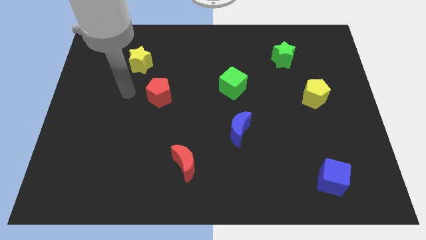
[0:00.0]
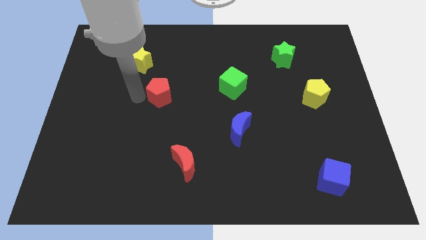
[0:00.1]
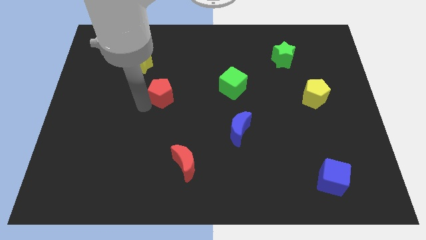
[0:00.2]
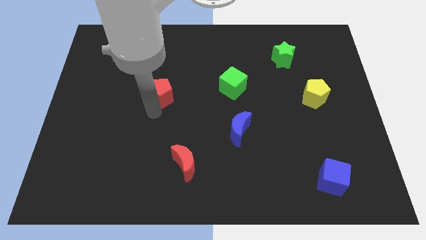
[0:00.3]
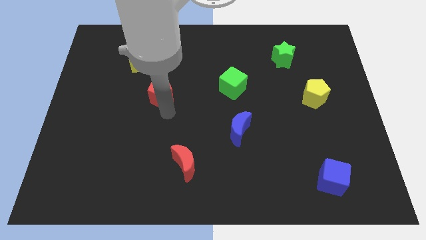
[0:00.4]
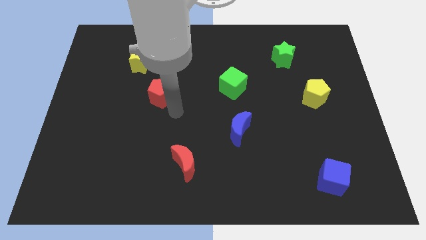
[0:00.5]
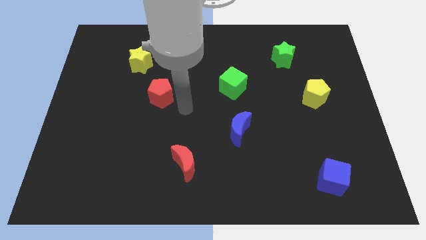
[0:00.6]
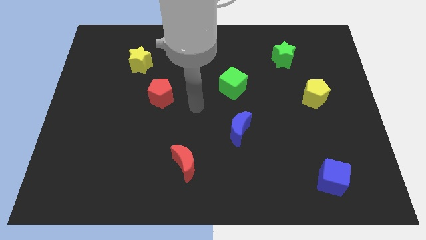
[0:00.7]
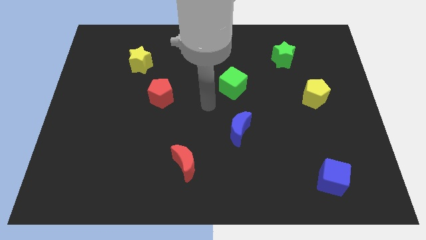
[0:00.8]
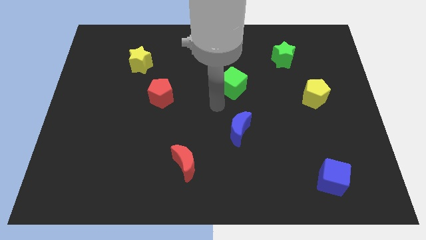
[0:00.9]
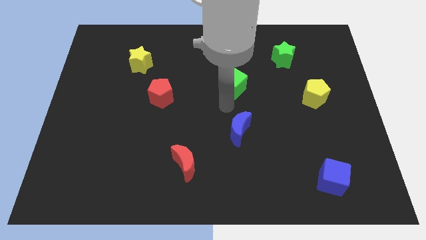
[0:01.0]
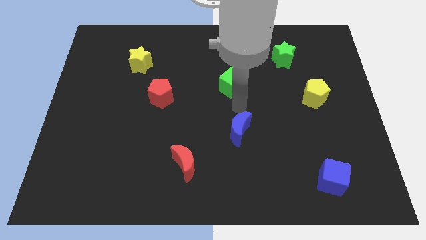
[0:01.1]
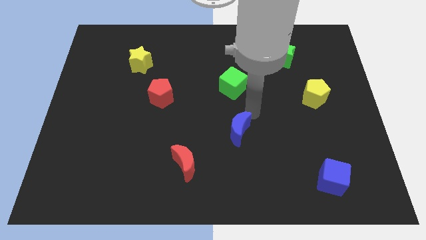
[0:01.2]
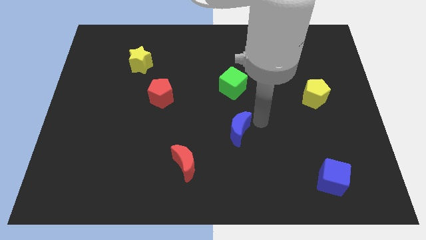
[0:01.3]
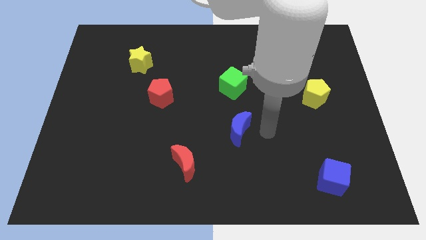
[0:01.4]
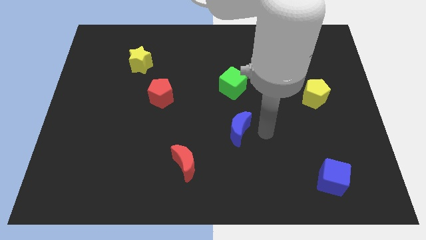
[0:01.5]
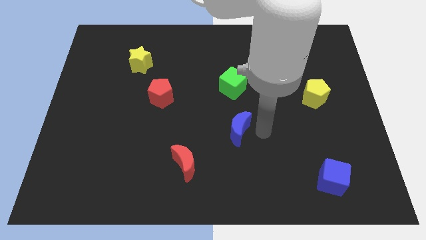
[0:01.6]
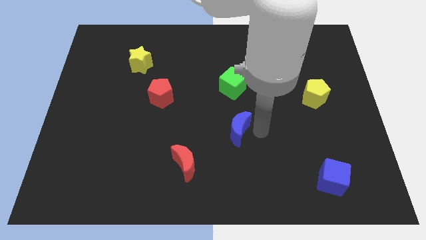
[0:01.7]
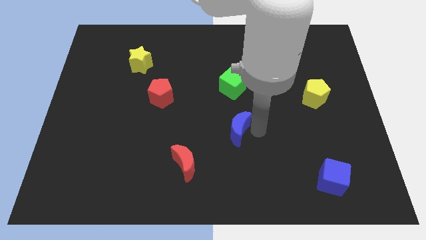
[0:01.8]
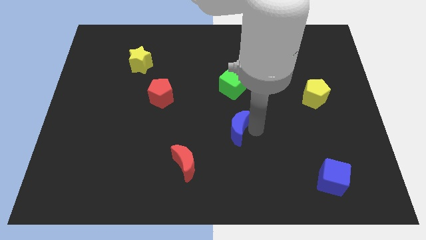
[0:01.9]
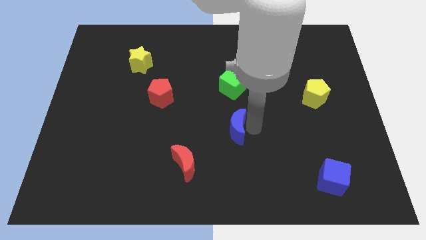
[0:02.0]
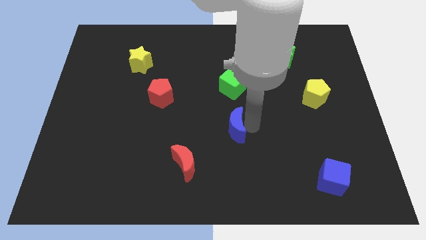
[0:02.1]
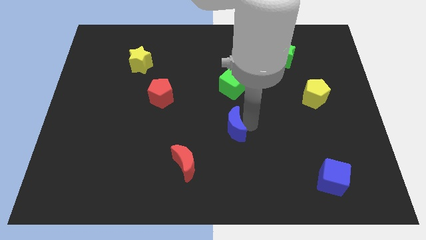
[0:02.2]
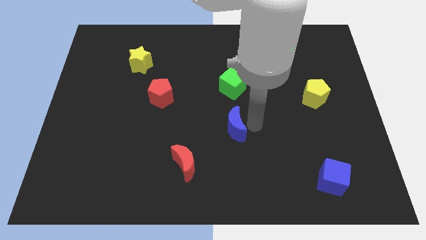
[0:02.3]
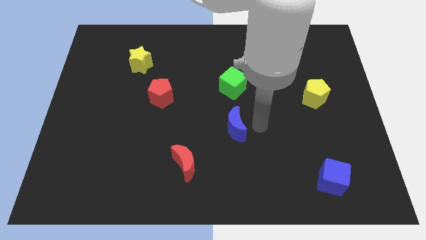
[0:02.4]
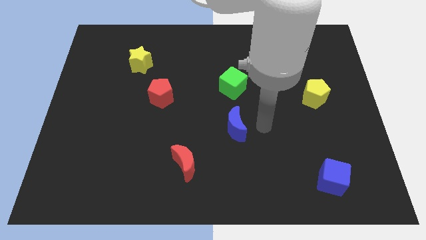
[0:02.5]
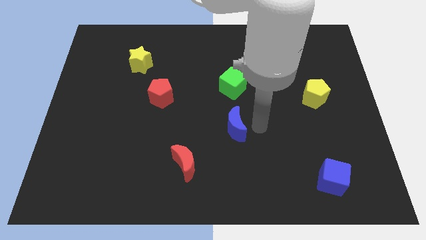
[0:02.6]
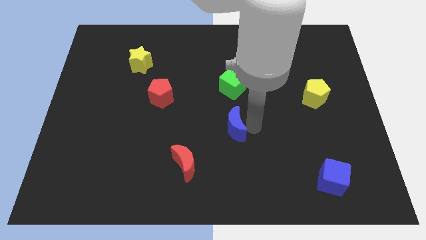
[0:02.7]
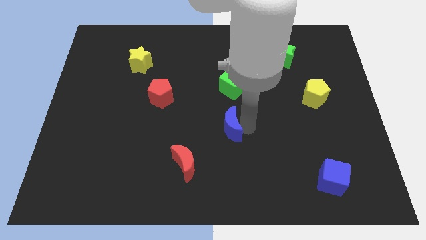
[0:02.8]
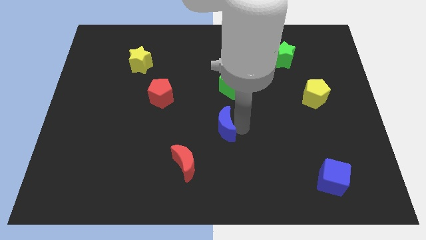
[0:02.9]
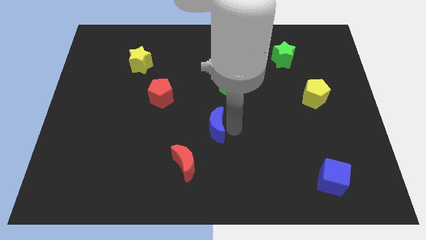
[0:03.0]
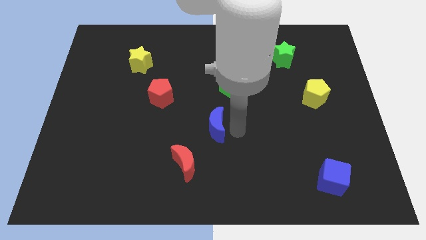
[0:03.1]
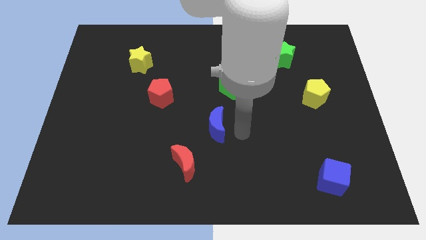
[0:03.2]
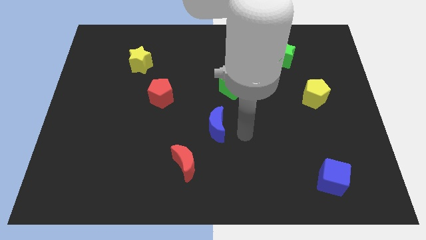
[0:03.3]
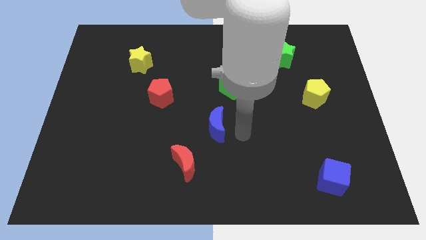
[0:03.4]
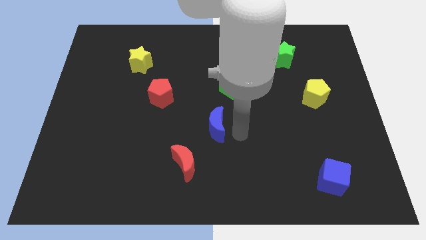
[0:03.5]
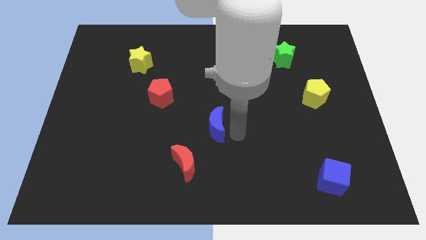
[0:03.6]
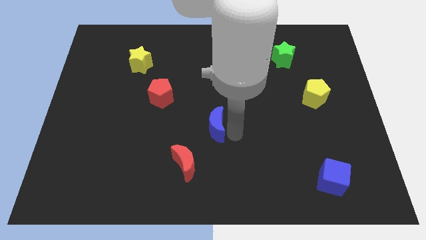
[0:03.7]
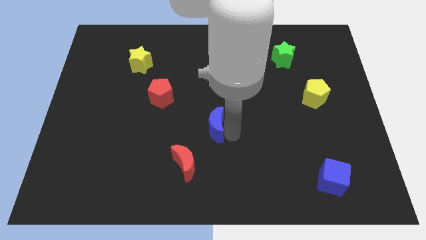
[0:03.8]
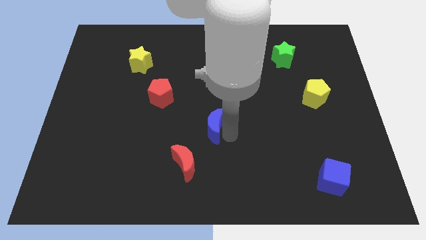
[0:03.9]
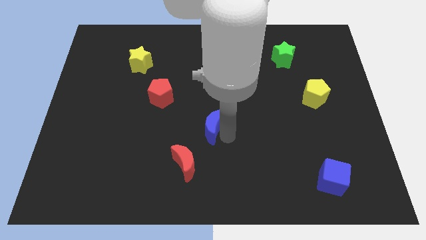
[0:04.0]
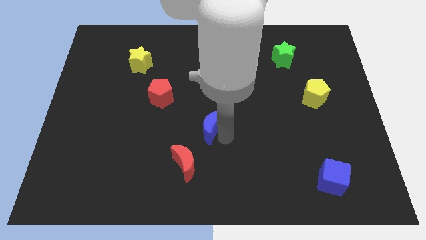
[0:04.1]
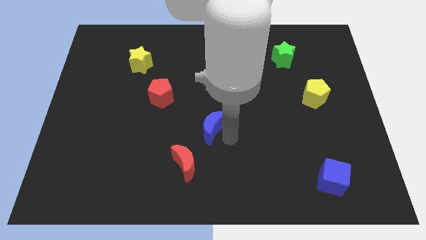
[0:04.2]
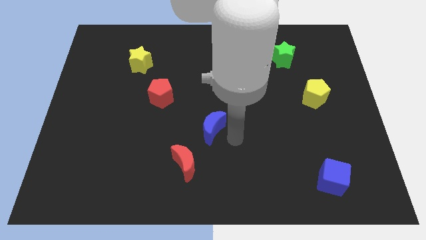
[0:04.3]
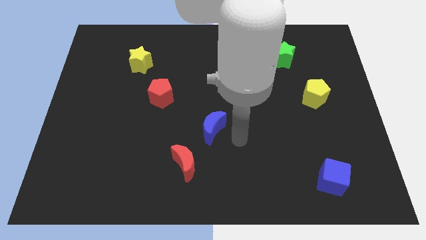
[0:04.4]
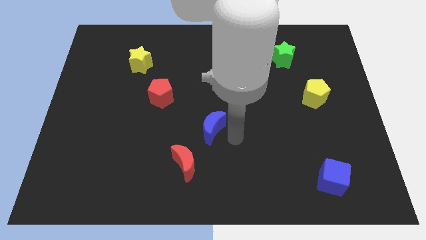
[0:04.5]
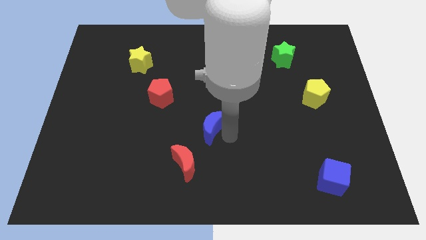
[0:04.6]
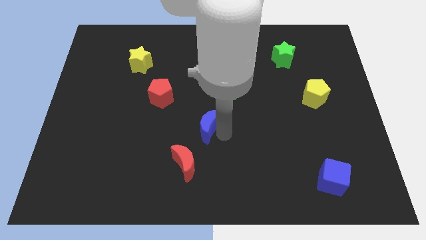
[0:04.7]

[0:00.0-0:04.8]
push the blue moon a little bit left

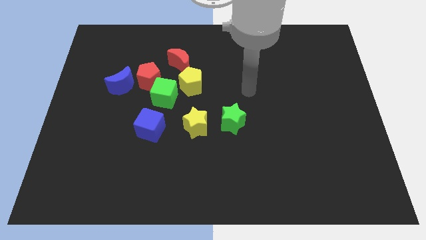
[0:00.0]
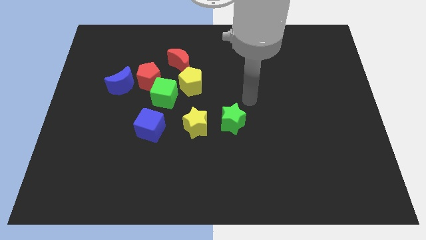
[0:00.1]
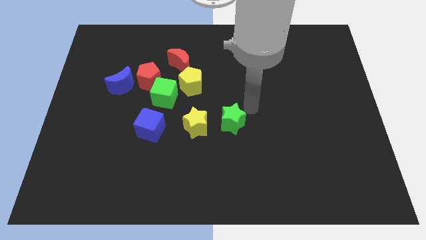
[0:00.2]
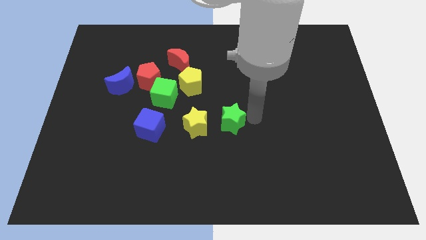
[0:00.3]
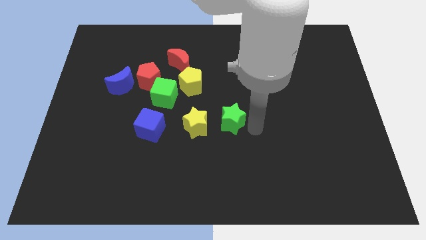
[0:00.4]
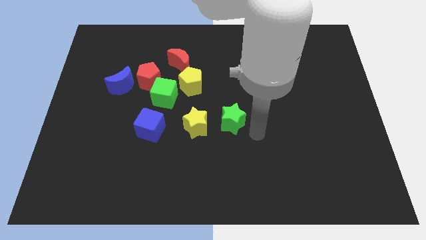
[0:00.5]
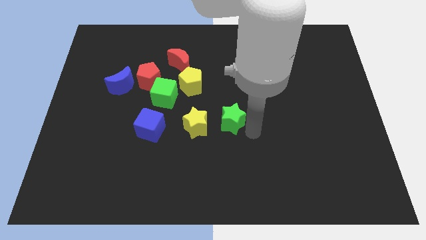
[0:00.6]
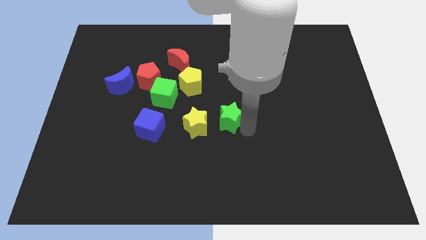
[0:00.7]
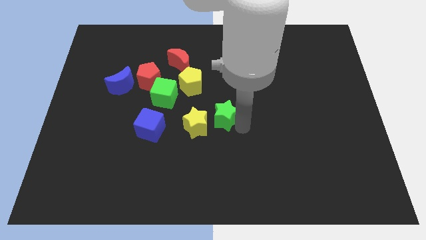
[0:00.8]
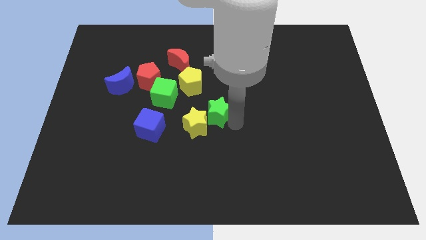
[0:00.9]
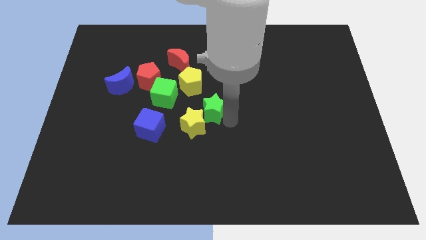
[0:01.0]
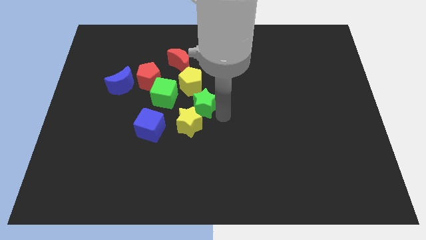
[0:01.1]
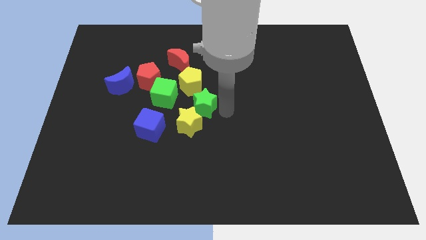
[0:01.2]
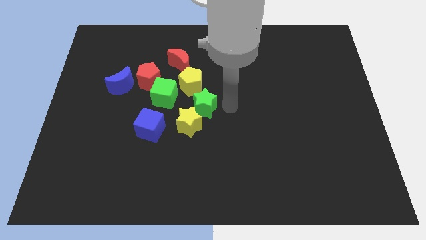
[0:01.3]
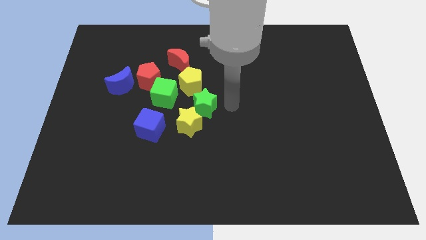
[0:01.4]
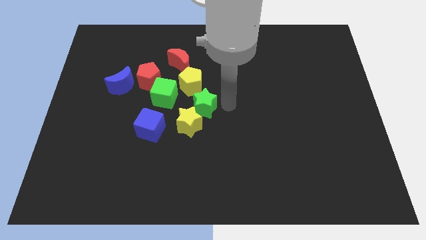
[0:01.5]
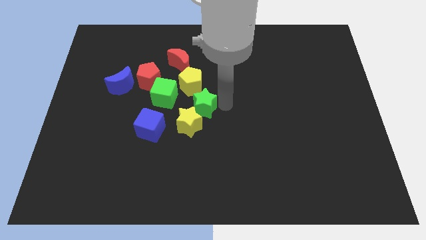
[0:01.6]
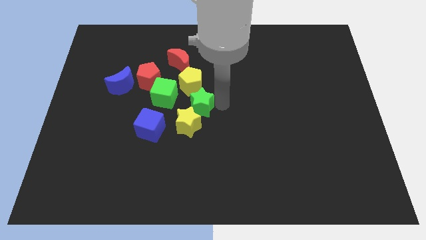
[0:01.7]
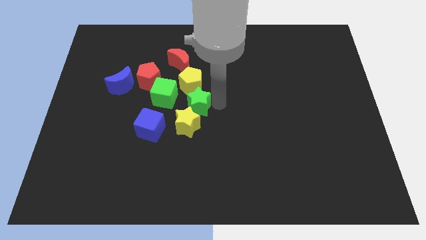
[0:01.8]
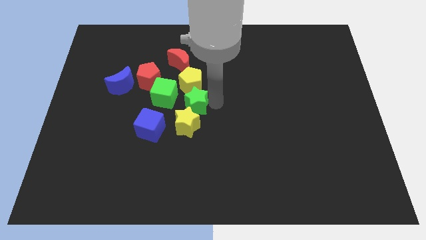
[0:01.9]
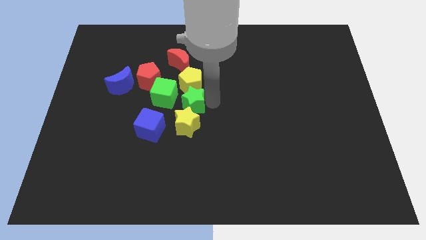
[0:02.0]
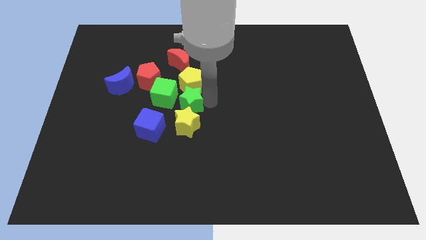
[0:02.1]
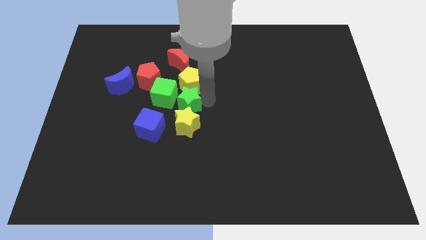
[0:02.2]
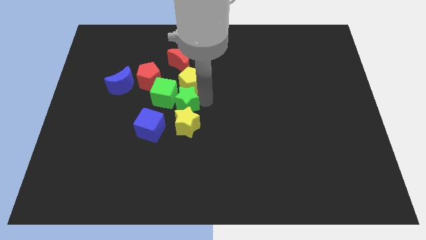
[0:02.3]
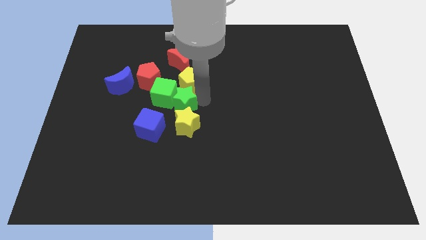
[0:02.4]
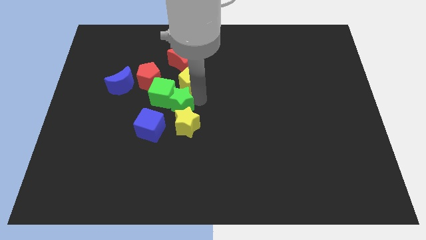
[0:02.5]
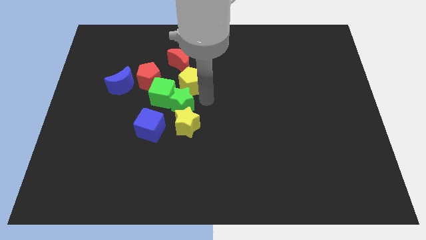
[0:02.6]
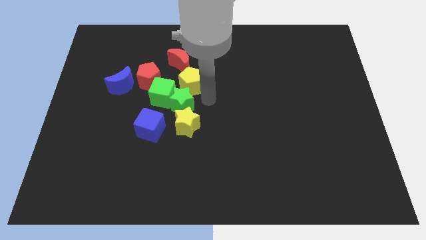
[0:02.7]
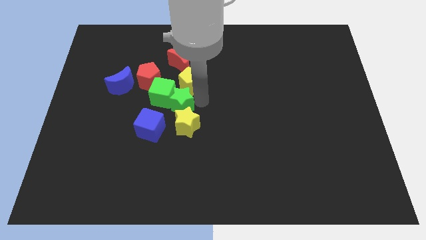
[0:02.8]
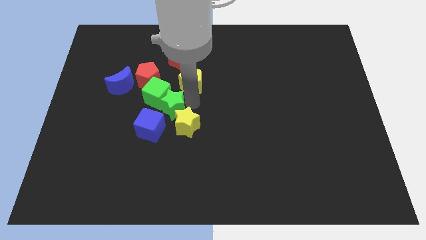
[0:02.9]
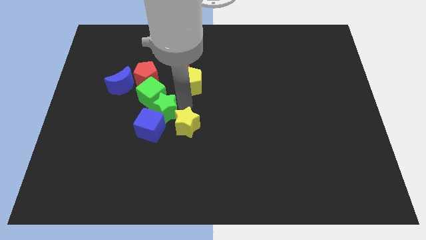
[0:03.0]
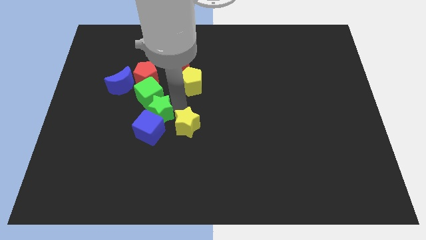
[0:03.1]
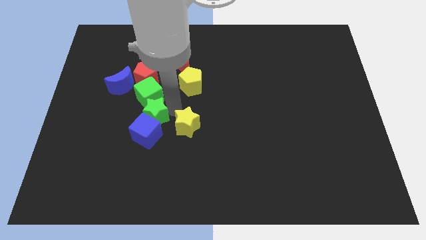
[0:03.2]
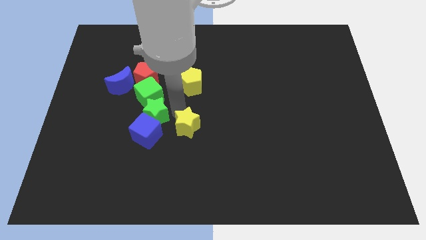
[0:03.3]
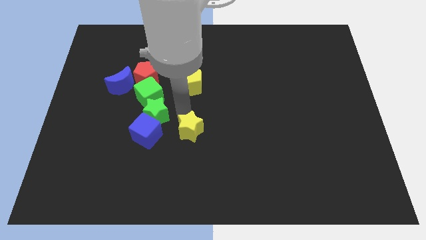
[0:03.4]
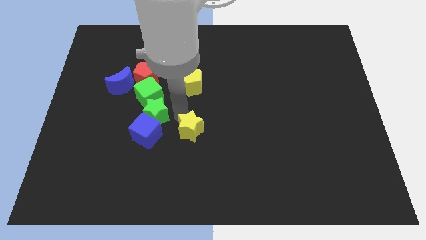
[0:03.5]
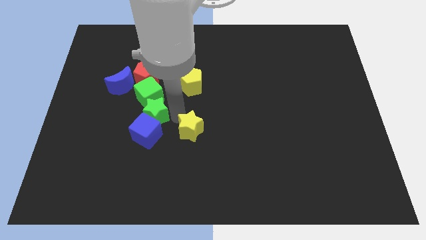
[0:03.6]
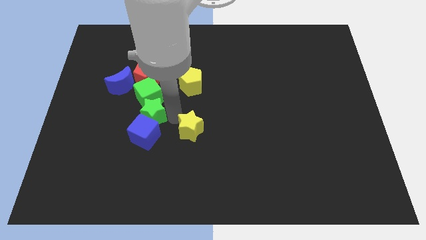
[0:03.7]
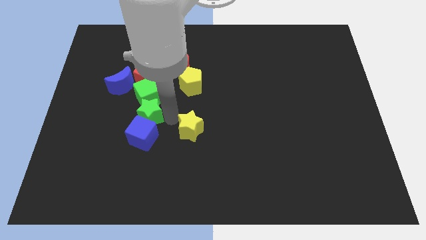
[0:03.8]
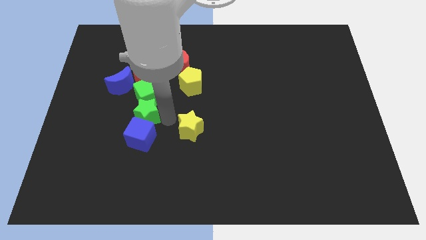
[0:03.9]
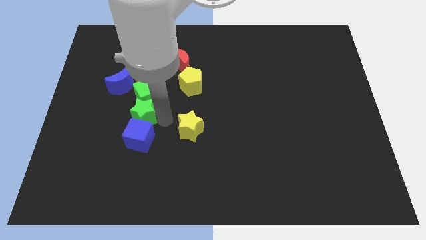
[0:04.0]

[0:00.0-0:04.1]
move the green star left
